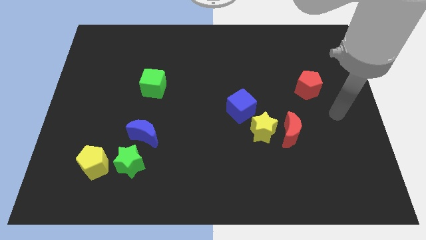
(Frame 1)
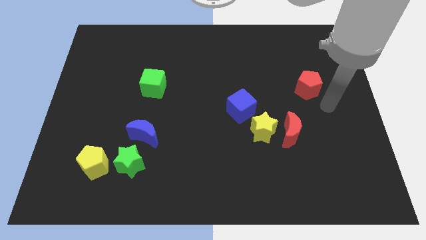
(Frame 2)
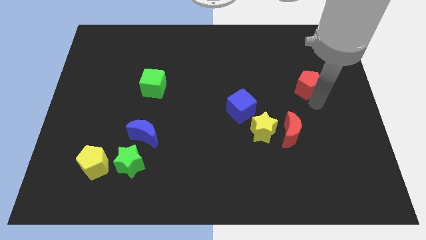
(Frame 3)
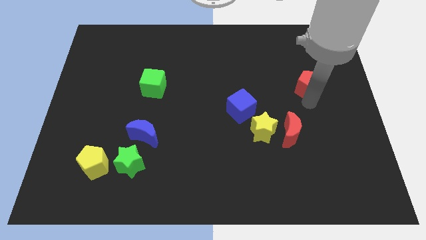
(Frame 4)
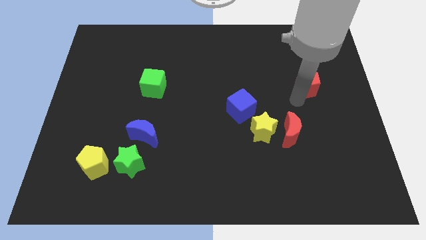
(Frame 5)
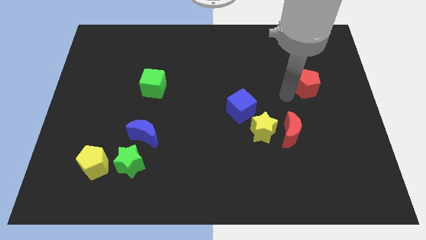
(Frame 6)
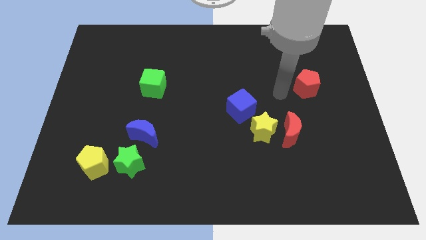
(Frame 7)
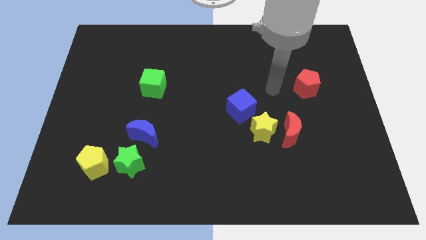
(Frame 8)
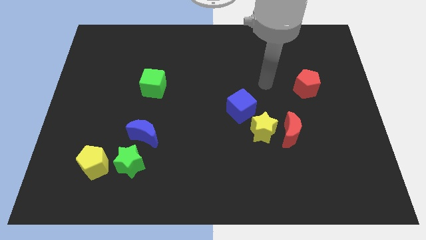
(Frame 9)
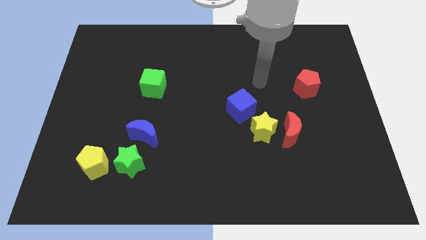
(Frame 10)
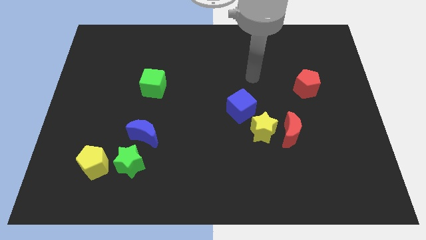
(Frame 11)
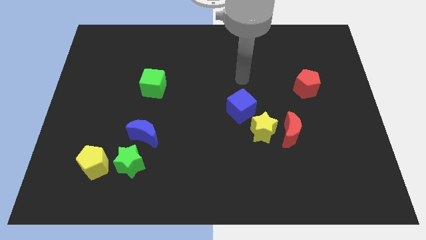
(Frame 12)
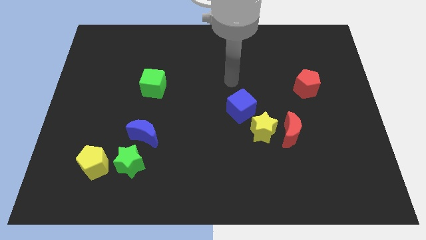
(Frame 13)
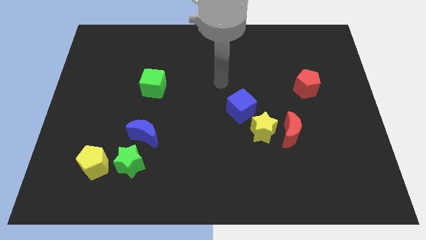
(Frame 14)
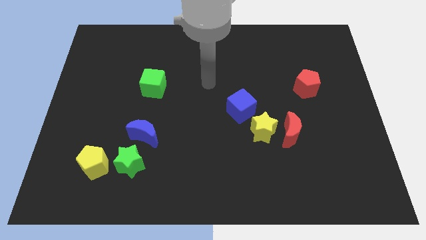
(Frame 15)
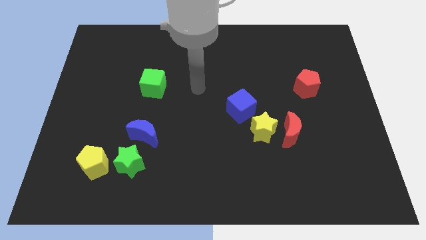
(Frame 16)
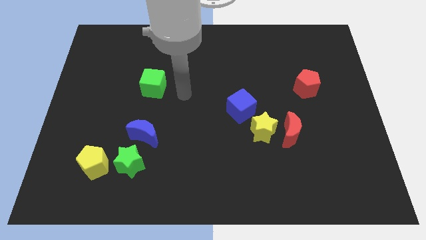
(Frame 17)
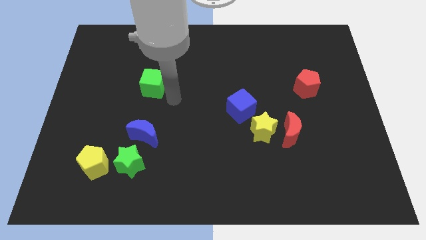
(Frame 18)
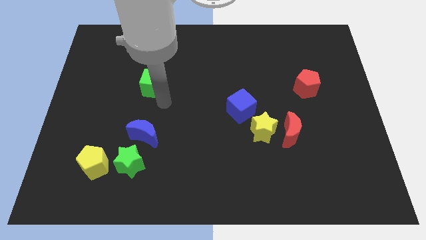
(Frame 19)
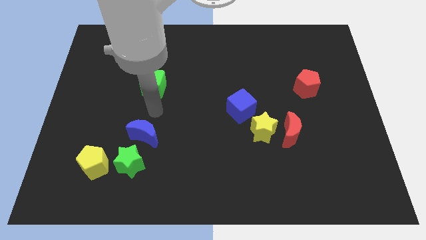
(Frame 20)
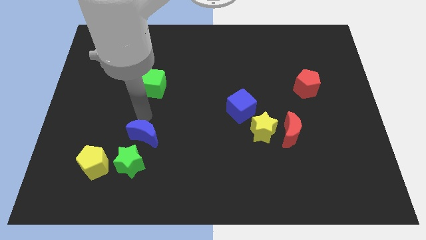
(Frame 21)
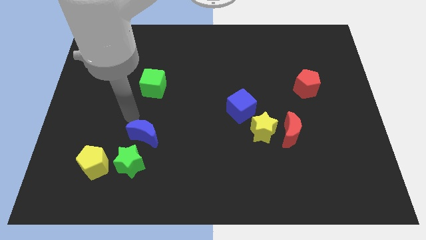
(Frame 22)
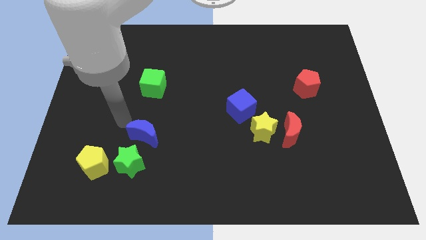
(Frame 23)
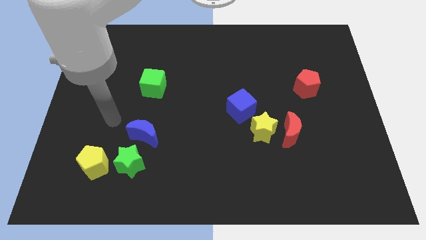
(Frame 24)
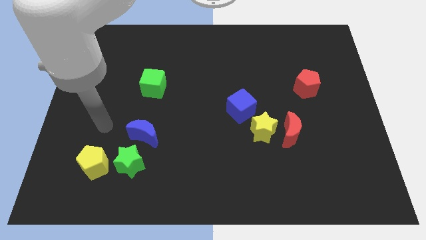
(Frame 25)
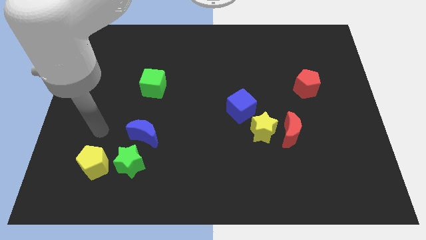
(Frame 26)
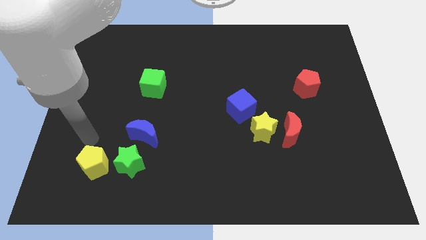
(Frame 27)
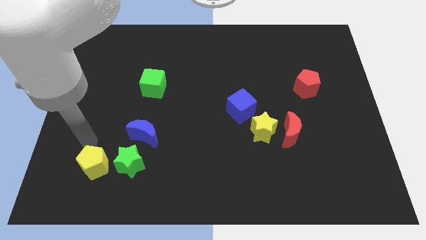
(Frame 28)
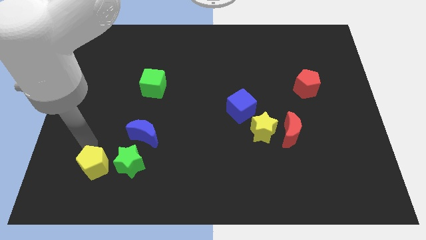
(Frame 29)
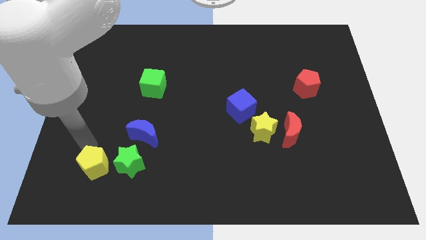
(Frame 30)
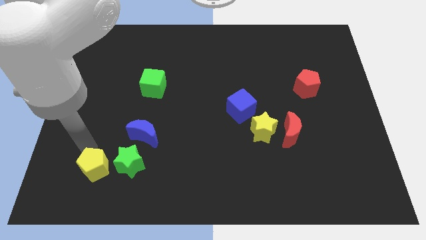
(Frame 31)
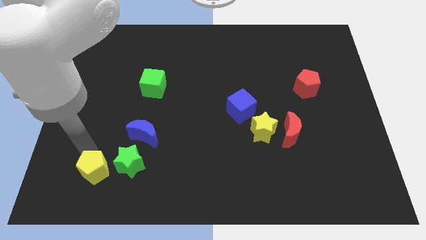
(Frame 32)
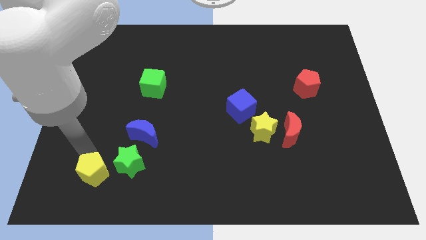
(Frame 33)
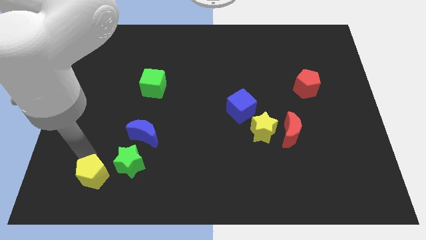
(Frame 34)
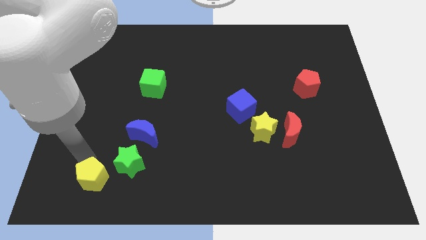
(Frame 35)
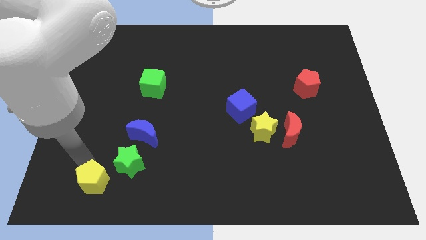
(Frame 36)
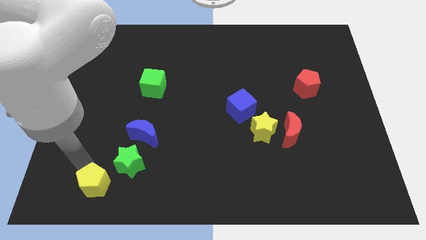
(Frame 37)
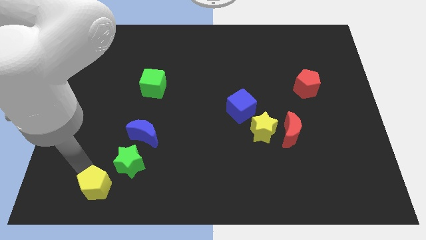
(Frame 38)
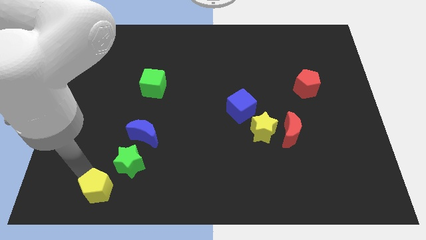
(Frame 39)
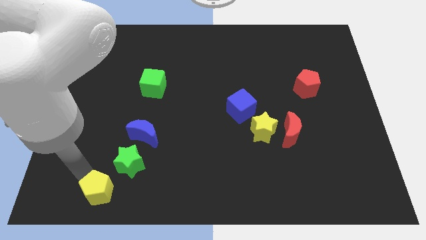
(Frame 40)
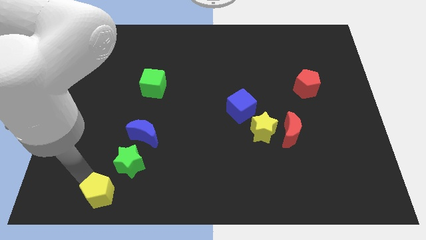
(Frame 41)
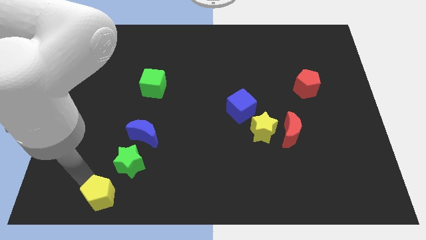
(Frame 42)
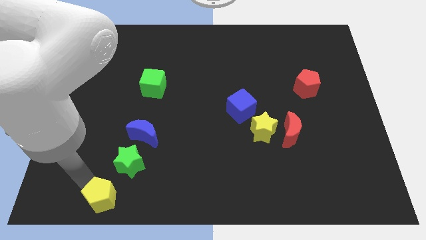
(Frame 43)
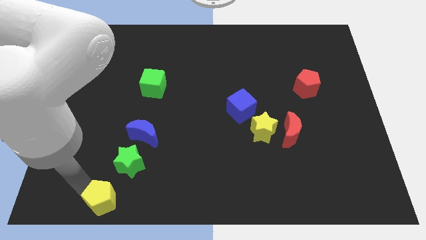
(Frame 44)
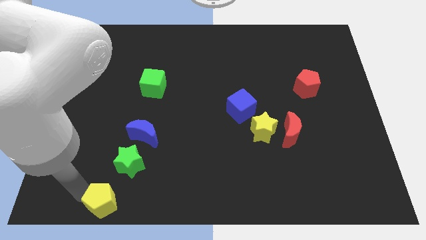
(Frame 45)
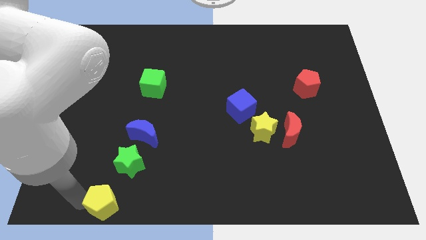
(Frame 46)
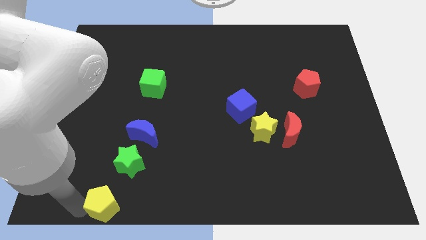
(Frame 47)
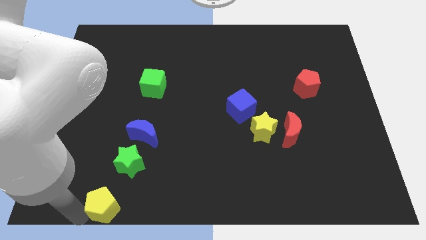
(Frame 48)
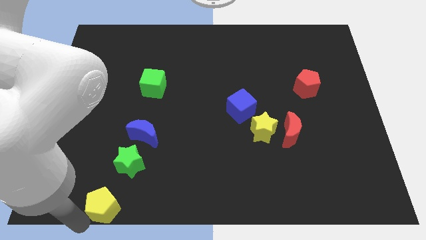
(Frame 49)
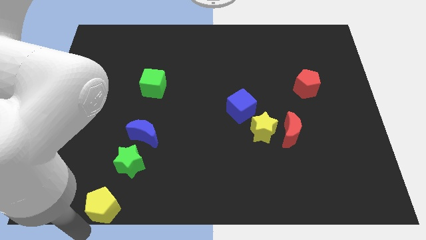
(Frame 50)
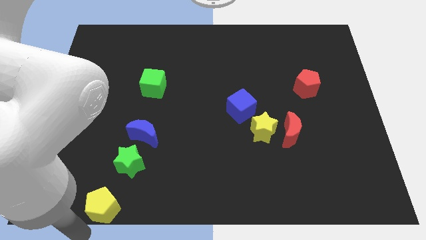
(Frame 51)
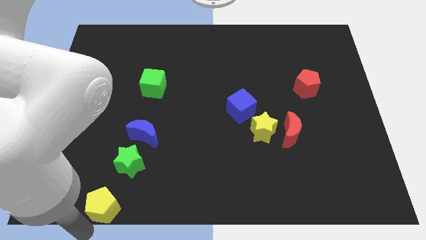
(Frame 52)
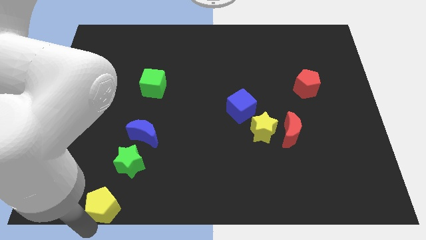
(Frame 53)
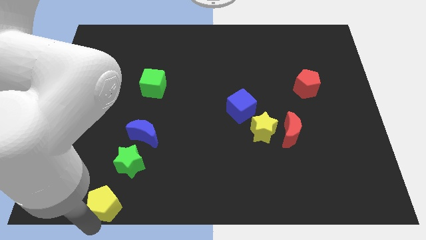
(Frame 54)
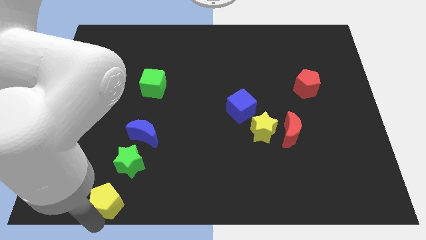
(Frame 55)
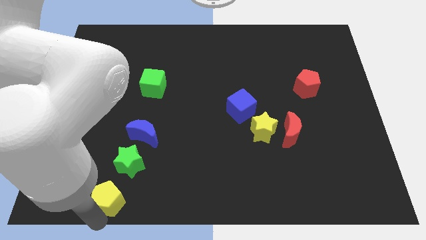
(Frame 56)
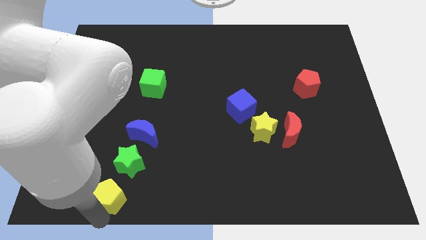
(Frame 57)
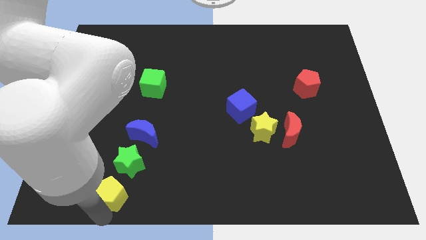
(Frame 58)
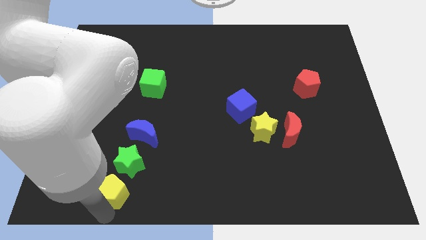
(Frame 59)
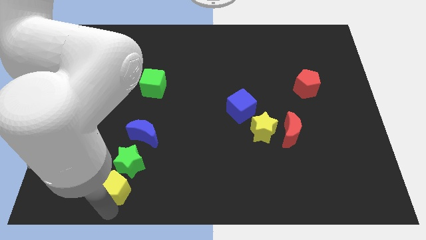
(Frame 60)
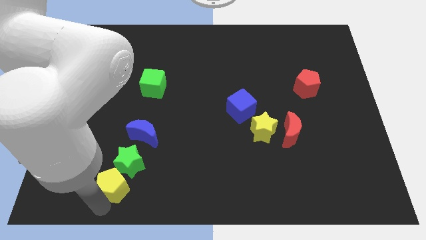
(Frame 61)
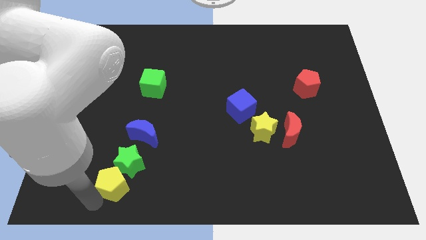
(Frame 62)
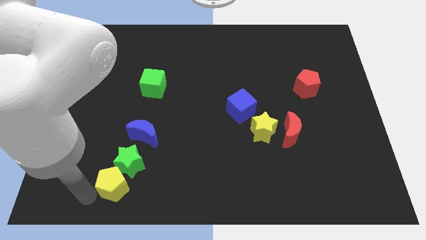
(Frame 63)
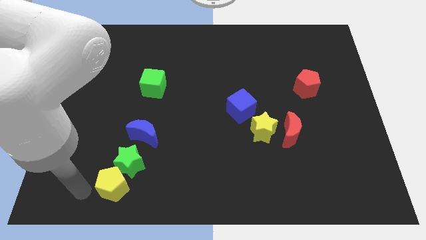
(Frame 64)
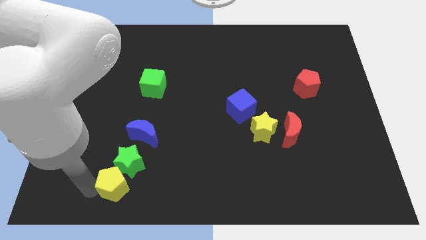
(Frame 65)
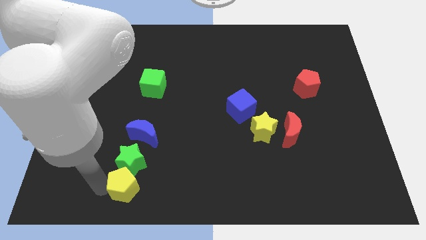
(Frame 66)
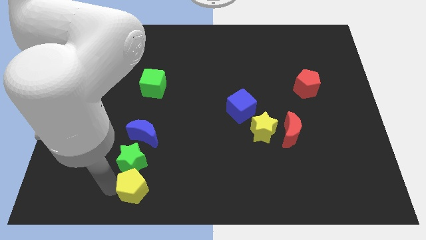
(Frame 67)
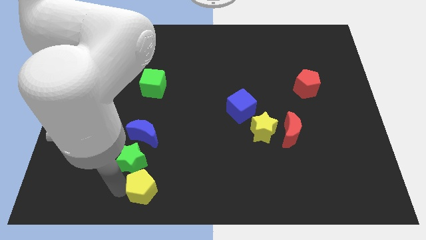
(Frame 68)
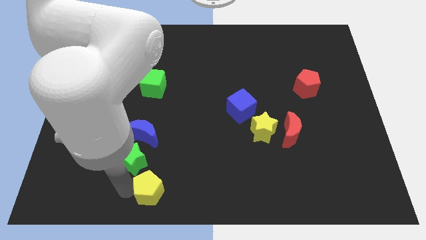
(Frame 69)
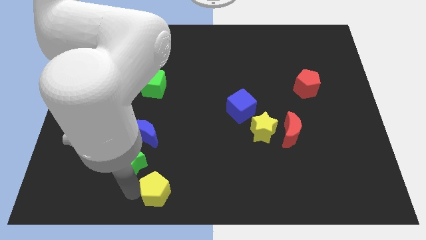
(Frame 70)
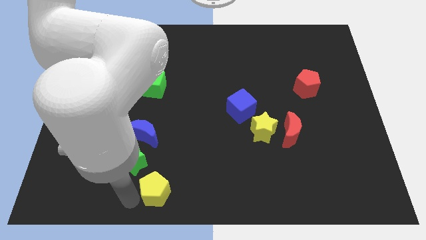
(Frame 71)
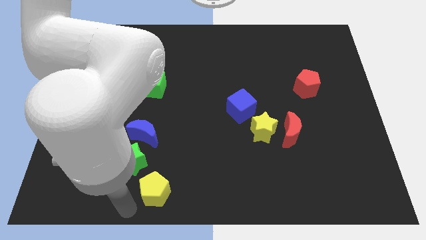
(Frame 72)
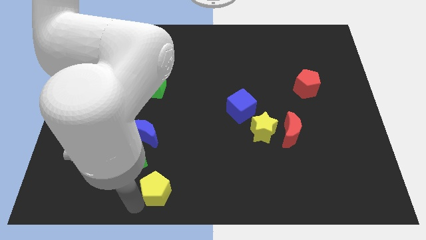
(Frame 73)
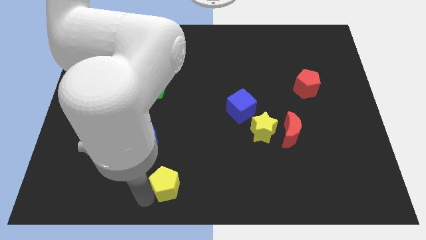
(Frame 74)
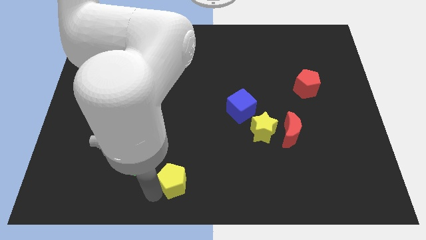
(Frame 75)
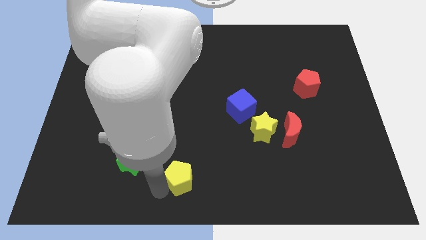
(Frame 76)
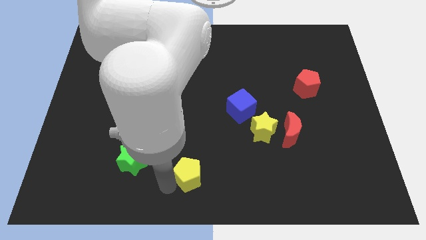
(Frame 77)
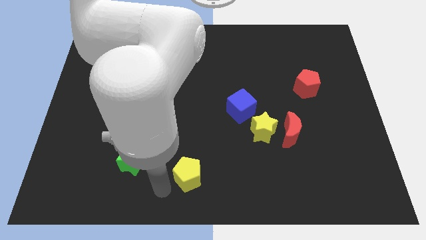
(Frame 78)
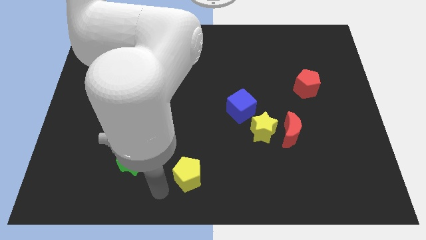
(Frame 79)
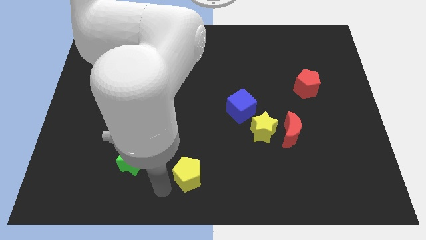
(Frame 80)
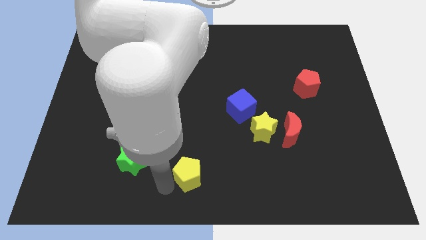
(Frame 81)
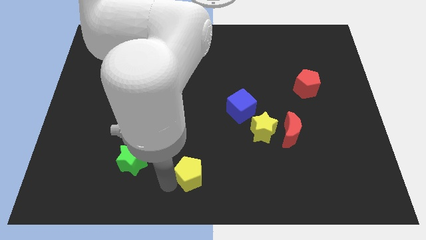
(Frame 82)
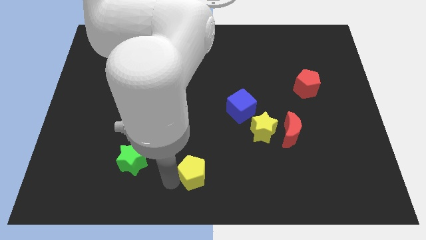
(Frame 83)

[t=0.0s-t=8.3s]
slide the yellow pentagon right
